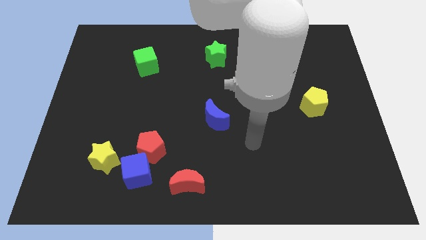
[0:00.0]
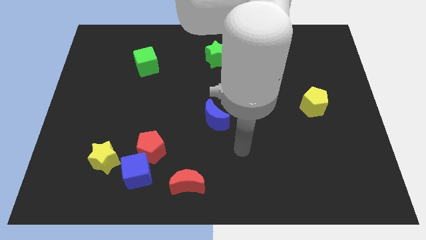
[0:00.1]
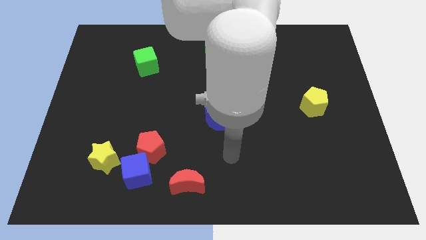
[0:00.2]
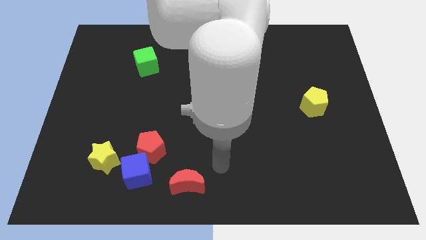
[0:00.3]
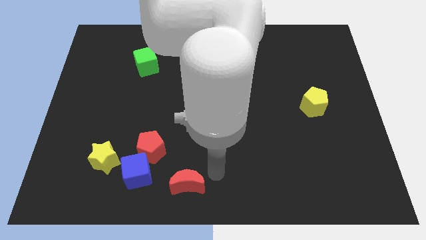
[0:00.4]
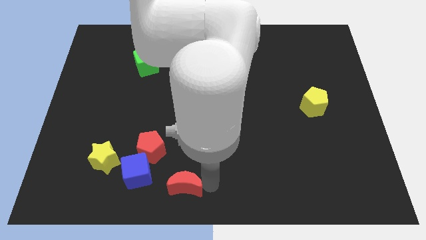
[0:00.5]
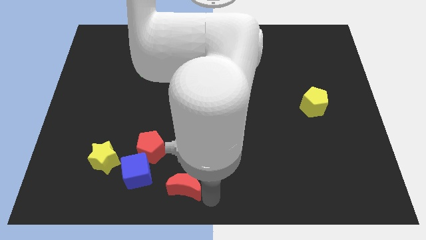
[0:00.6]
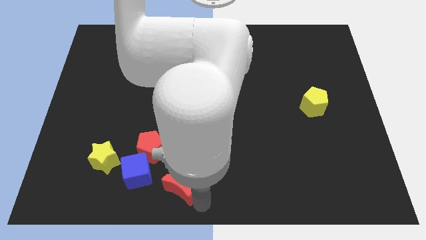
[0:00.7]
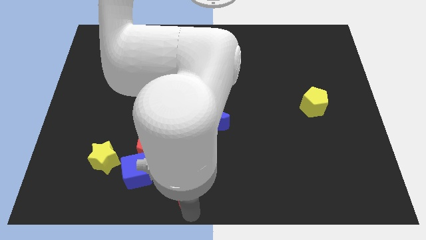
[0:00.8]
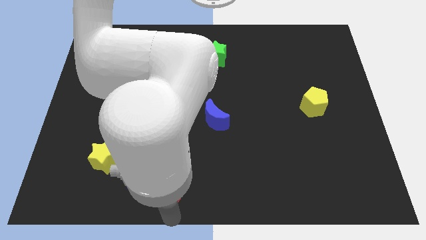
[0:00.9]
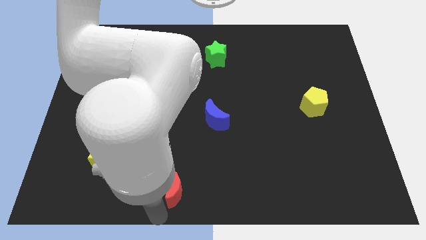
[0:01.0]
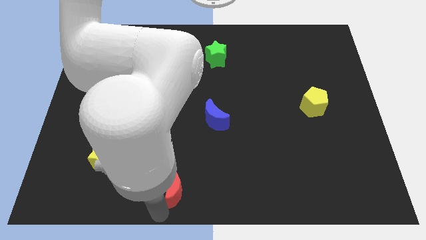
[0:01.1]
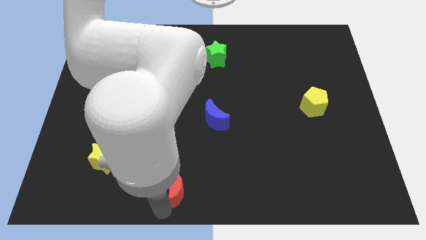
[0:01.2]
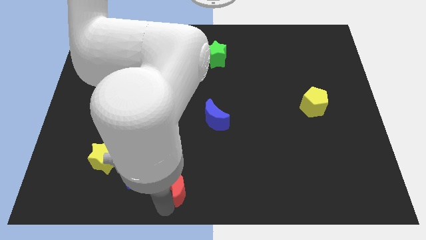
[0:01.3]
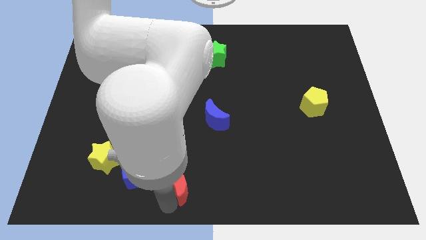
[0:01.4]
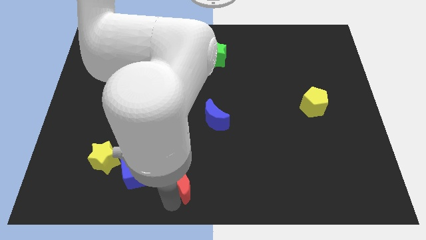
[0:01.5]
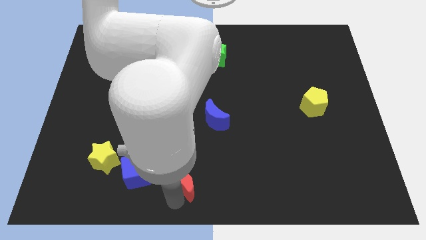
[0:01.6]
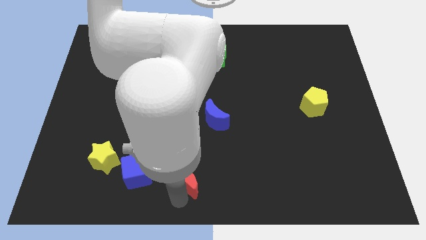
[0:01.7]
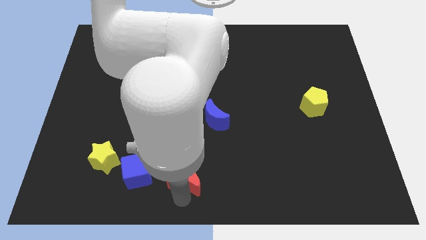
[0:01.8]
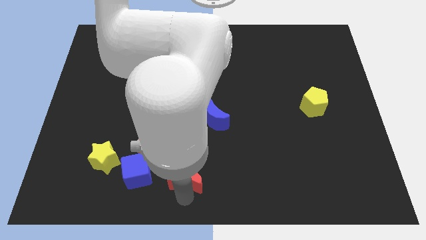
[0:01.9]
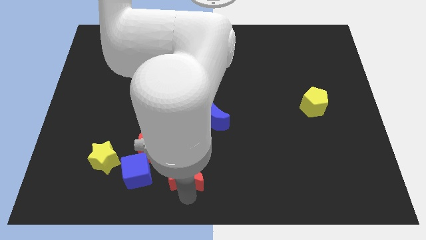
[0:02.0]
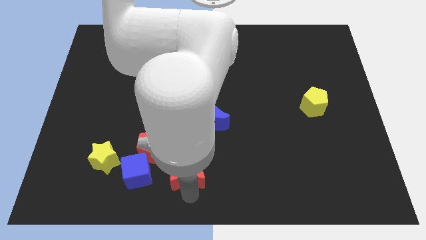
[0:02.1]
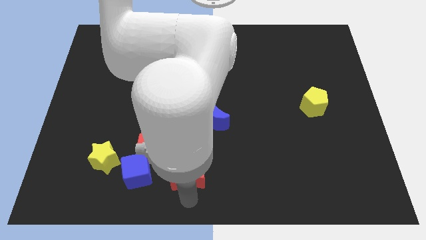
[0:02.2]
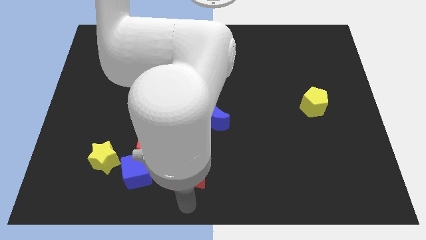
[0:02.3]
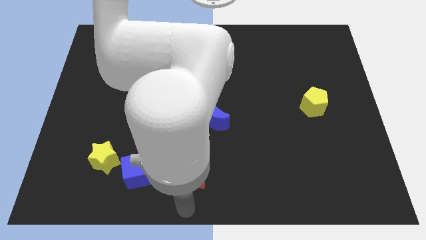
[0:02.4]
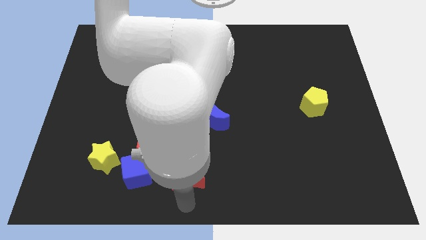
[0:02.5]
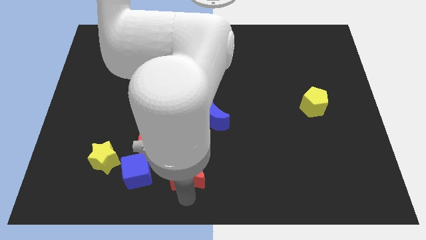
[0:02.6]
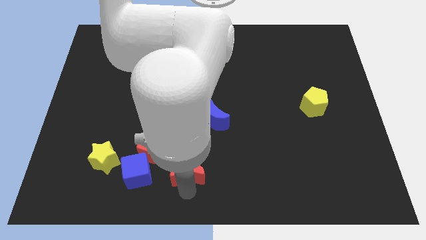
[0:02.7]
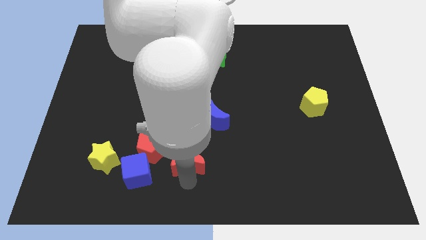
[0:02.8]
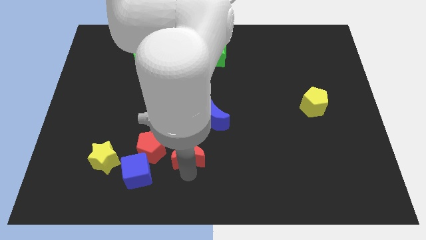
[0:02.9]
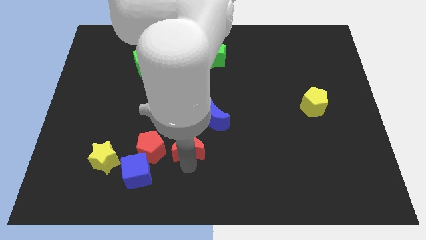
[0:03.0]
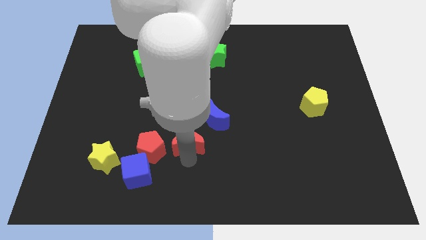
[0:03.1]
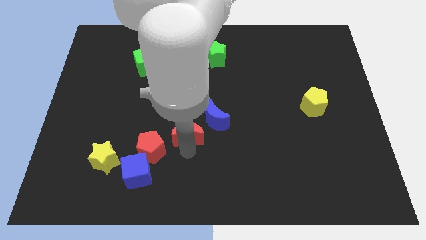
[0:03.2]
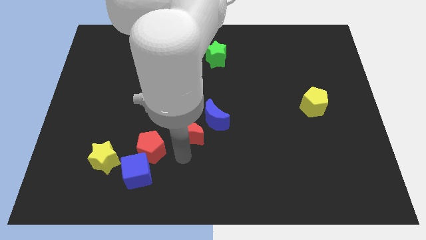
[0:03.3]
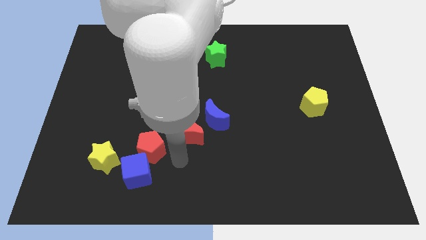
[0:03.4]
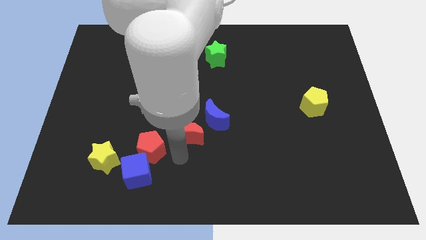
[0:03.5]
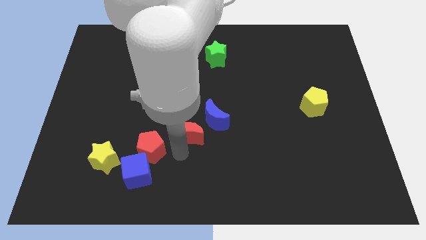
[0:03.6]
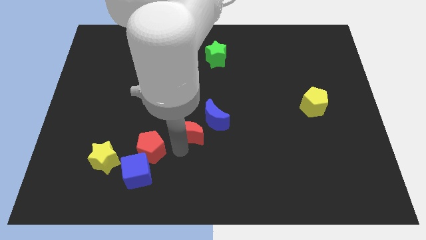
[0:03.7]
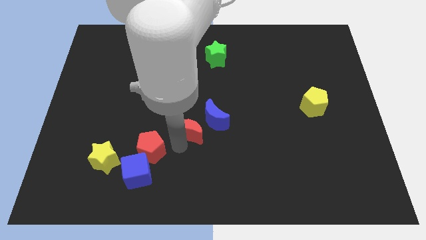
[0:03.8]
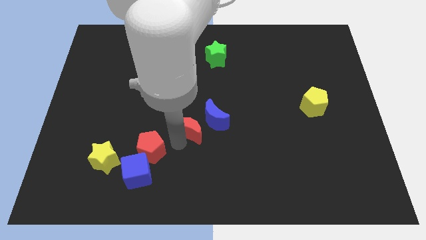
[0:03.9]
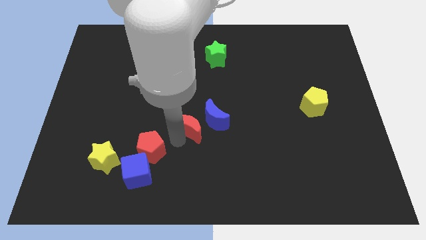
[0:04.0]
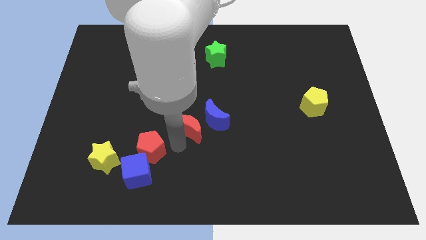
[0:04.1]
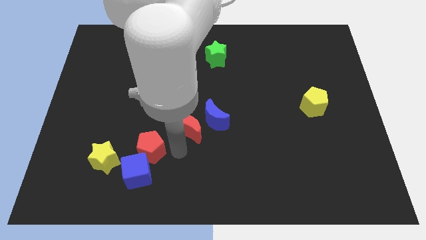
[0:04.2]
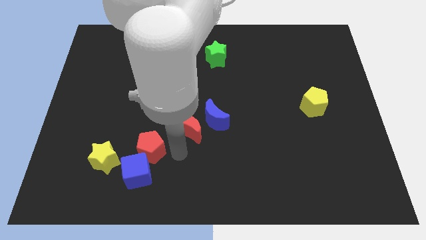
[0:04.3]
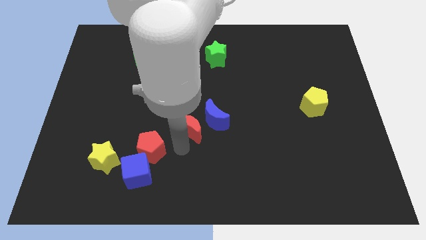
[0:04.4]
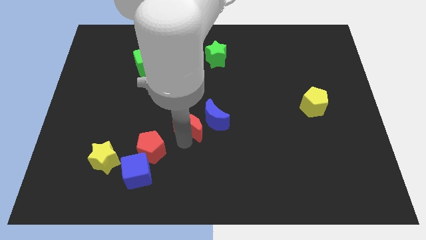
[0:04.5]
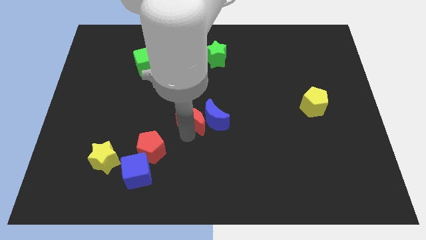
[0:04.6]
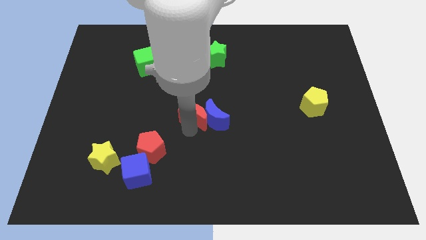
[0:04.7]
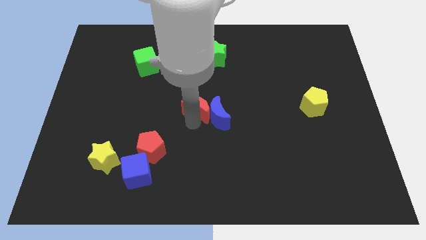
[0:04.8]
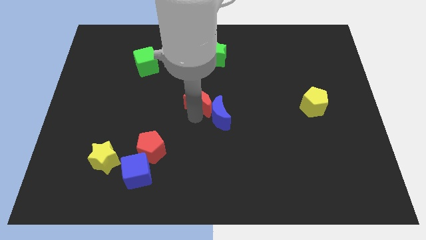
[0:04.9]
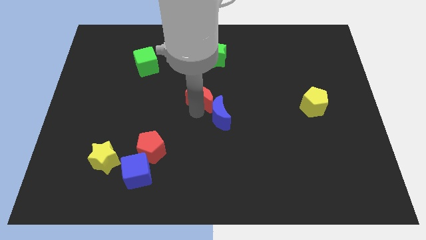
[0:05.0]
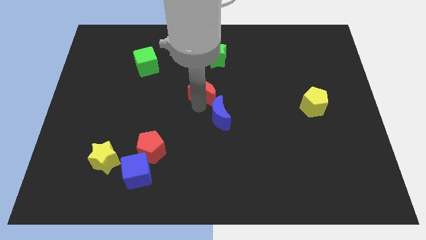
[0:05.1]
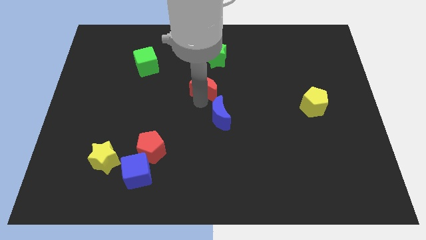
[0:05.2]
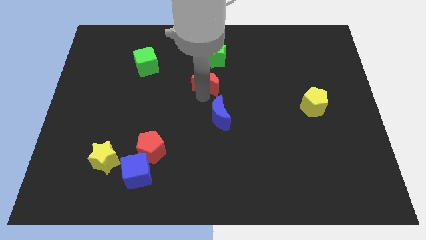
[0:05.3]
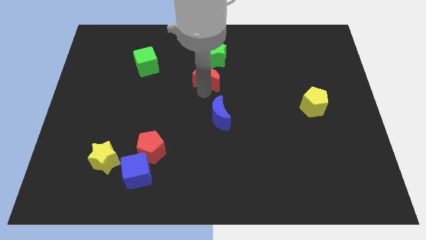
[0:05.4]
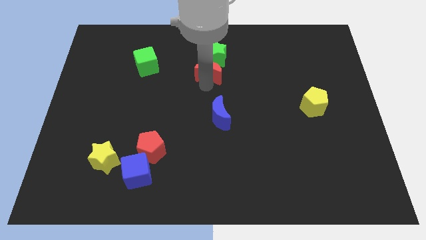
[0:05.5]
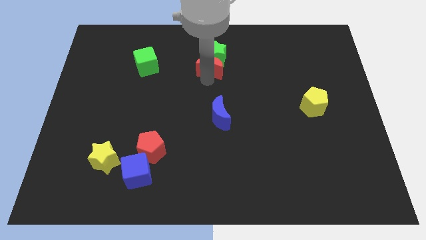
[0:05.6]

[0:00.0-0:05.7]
slide the red moon next to the green star

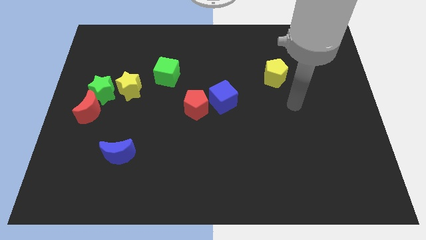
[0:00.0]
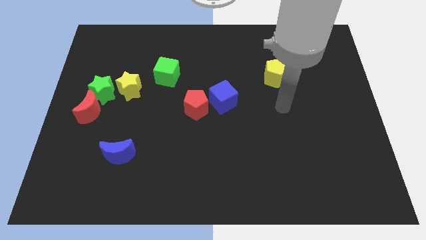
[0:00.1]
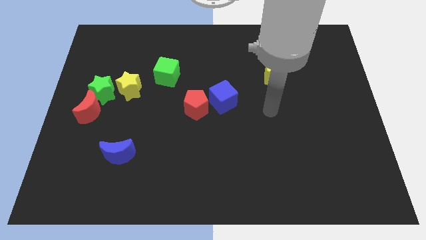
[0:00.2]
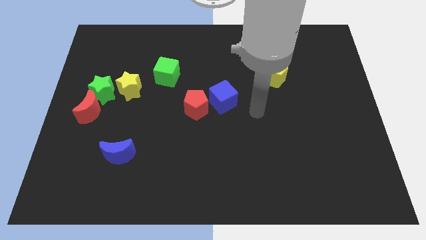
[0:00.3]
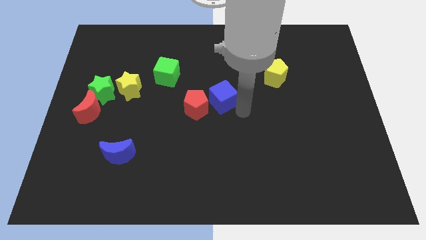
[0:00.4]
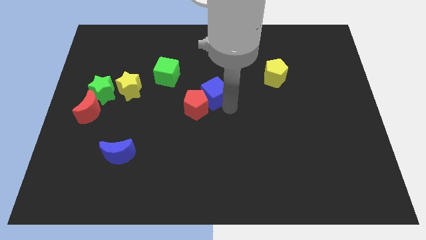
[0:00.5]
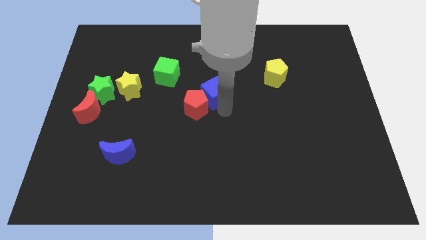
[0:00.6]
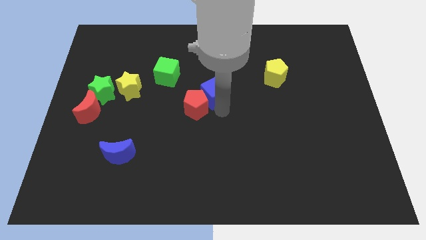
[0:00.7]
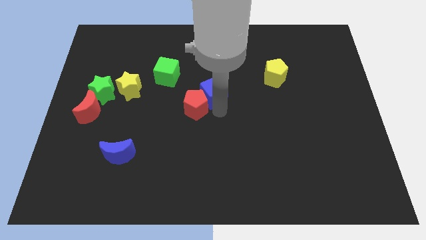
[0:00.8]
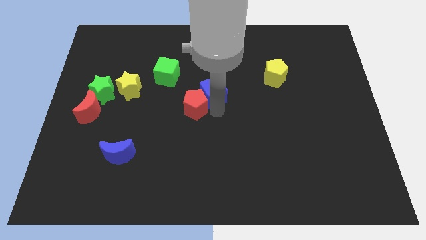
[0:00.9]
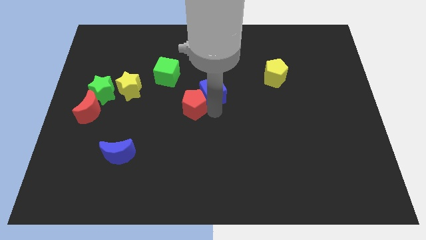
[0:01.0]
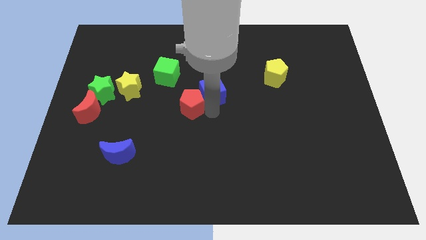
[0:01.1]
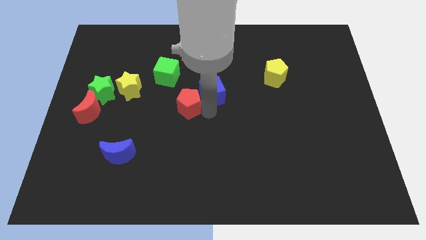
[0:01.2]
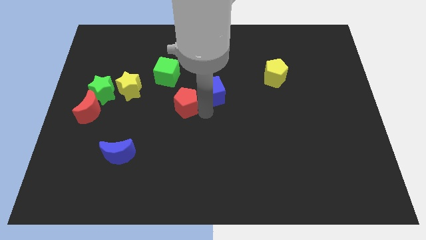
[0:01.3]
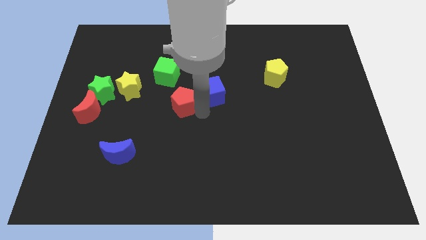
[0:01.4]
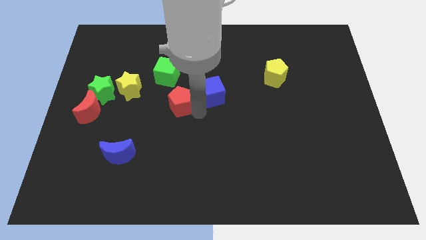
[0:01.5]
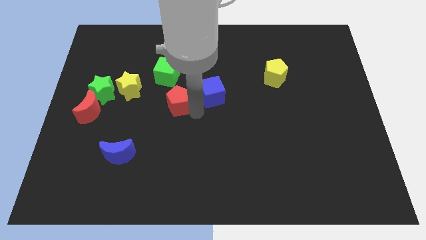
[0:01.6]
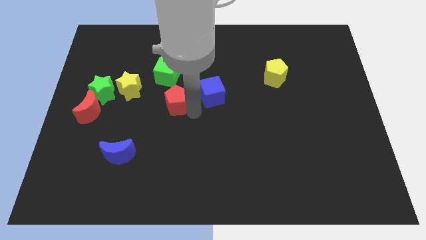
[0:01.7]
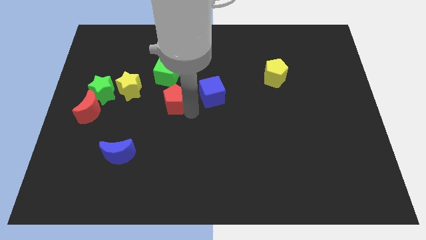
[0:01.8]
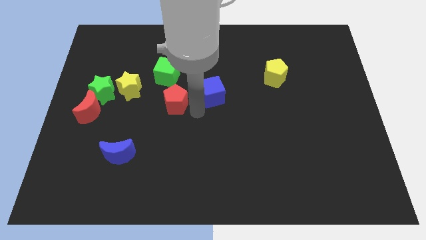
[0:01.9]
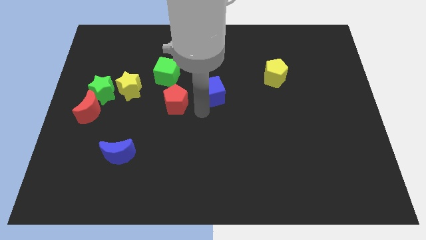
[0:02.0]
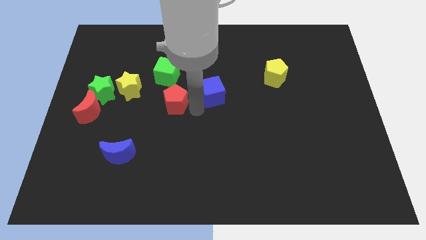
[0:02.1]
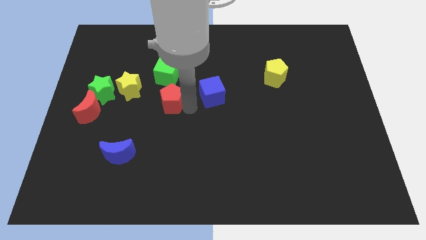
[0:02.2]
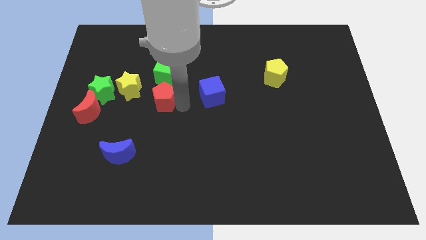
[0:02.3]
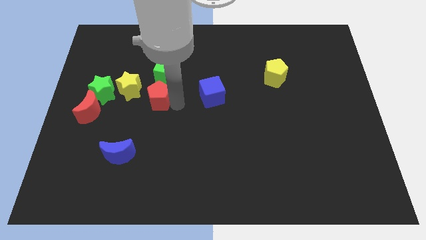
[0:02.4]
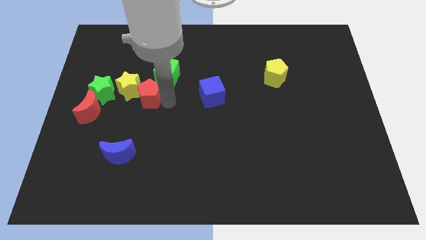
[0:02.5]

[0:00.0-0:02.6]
push the red pentagon next to the yellow star
